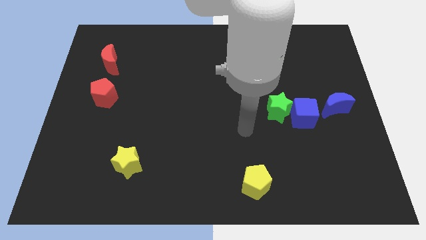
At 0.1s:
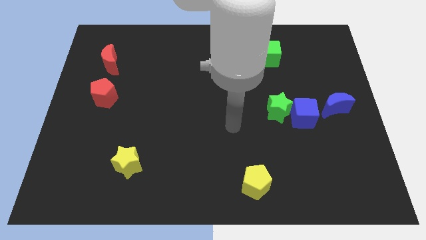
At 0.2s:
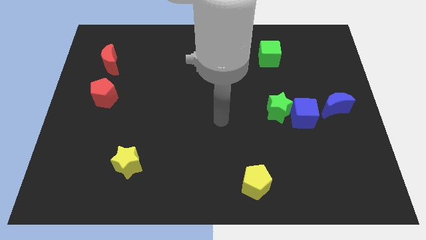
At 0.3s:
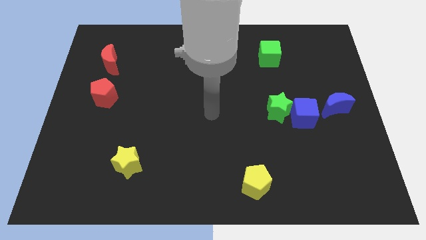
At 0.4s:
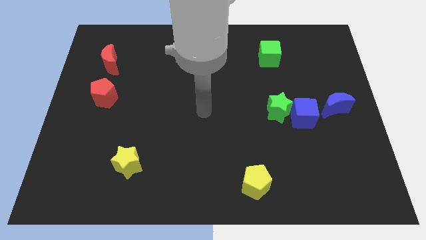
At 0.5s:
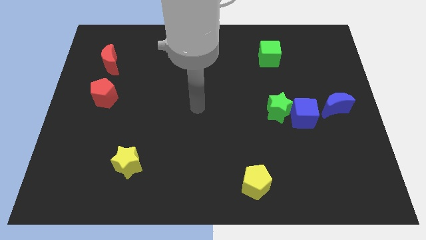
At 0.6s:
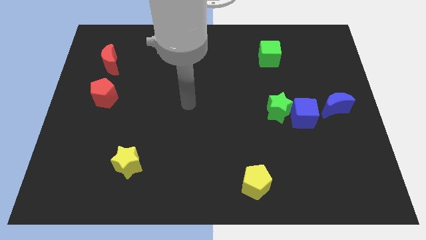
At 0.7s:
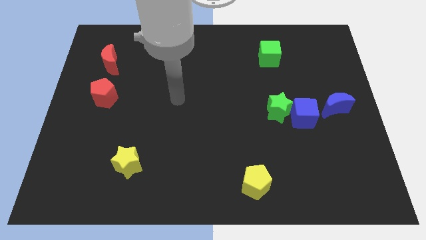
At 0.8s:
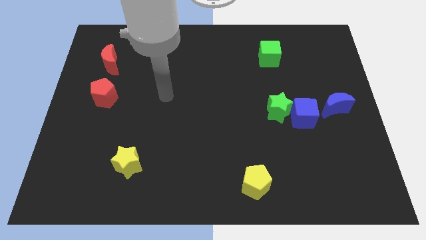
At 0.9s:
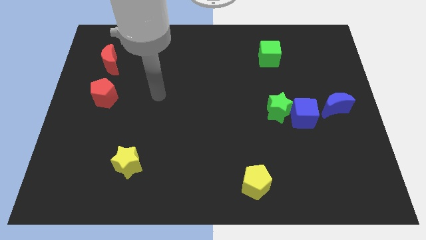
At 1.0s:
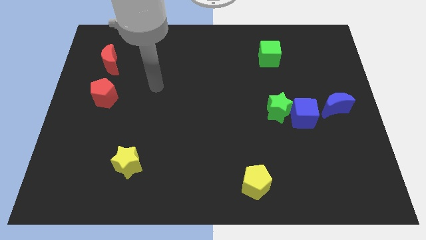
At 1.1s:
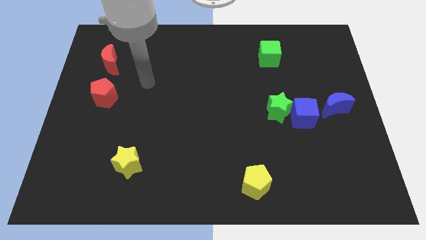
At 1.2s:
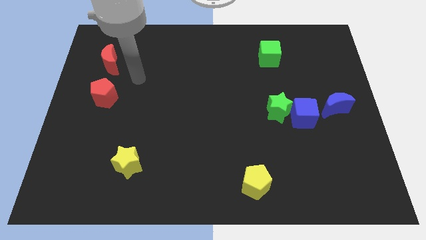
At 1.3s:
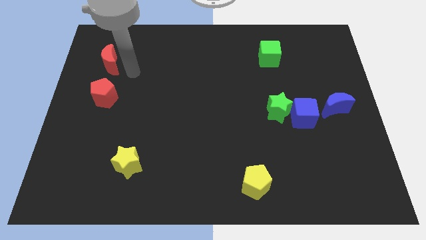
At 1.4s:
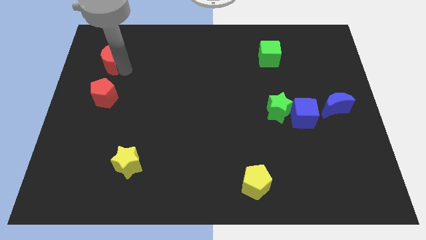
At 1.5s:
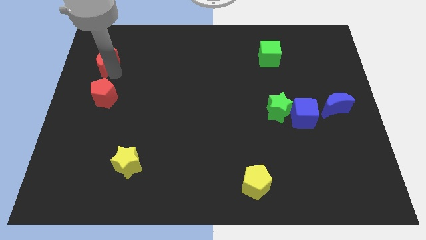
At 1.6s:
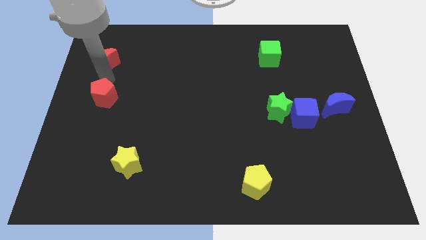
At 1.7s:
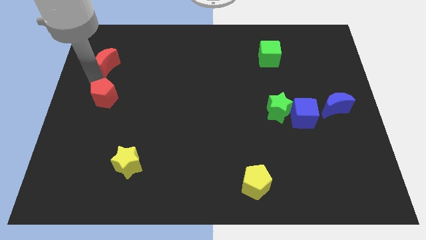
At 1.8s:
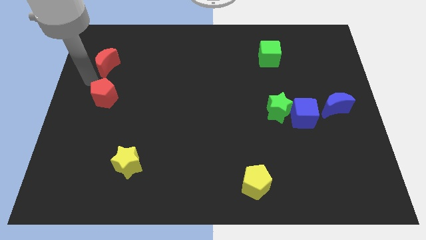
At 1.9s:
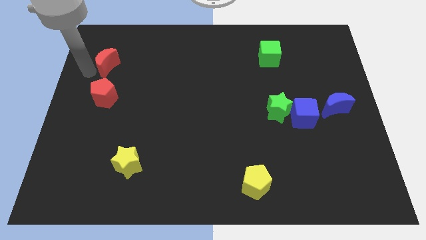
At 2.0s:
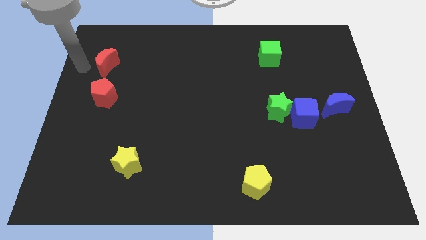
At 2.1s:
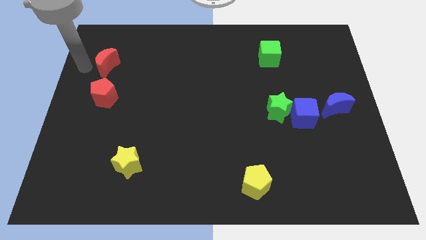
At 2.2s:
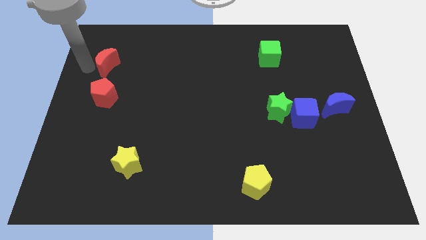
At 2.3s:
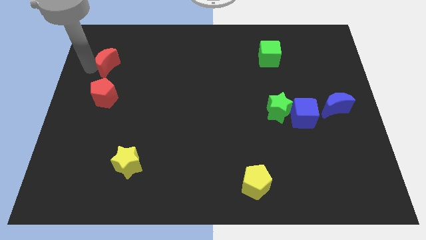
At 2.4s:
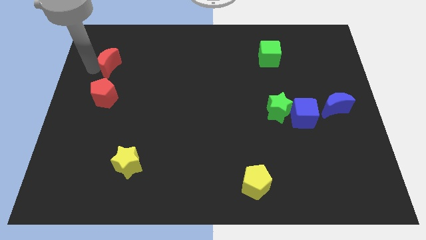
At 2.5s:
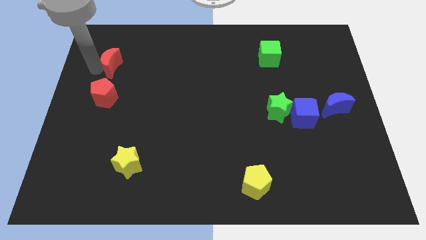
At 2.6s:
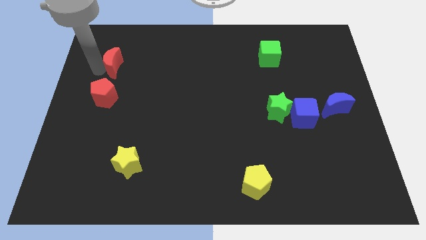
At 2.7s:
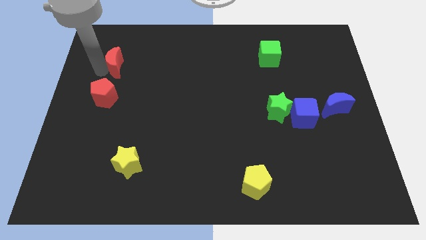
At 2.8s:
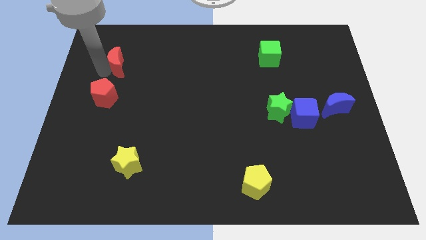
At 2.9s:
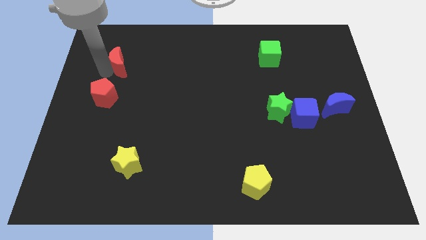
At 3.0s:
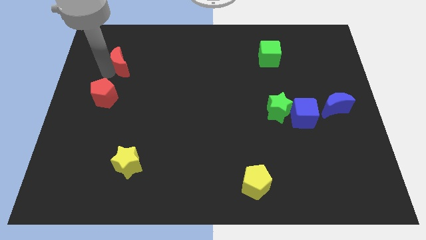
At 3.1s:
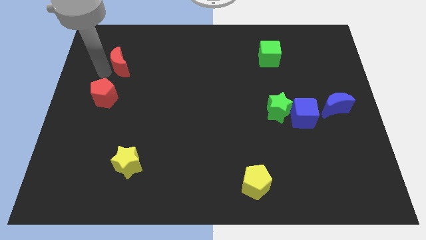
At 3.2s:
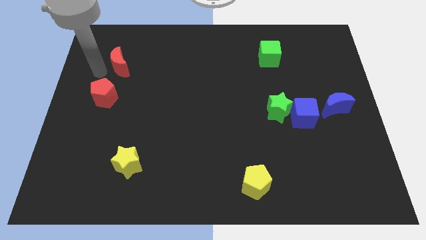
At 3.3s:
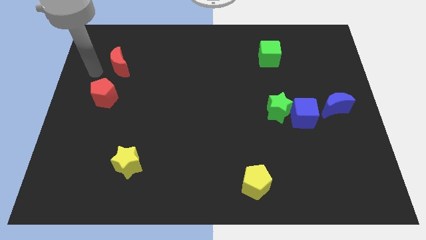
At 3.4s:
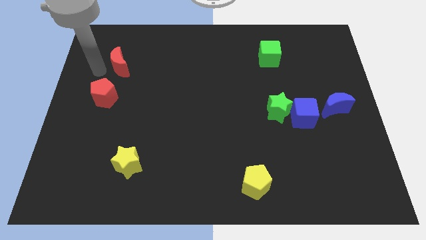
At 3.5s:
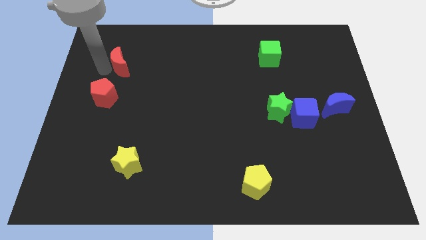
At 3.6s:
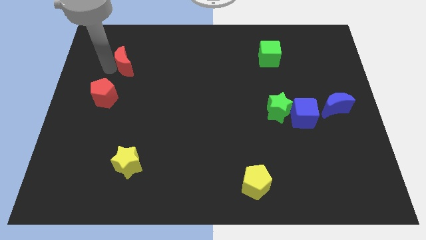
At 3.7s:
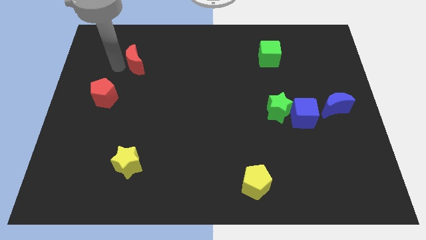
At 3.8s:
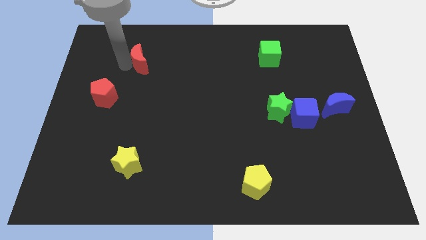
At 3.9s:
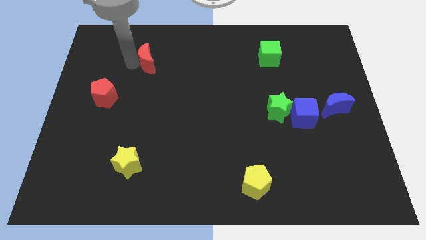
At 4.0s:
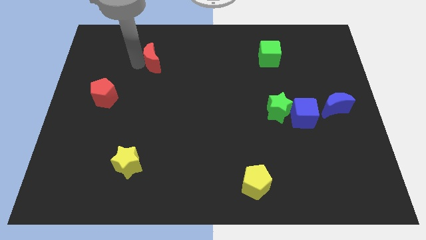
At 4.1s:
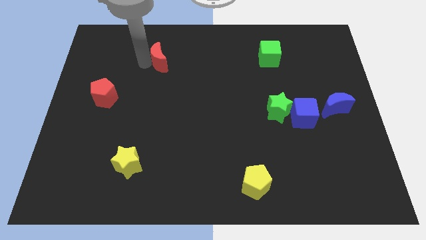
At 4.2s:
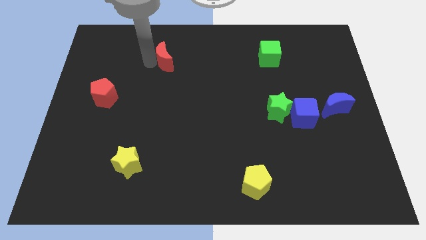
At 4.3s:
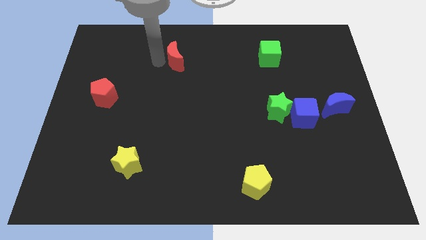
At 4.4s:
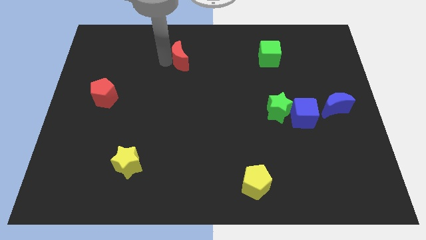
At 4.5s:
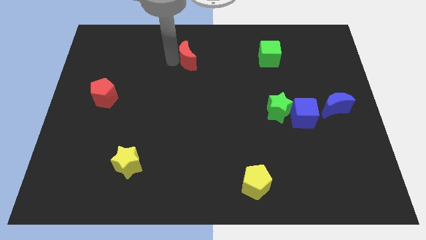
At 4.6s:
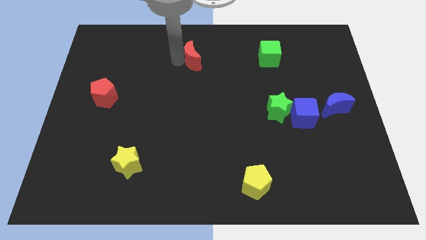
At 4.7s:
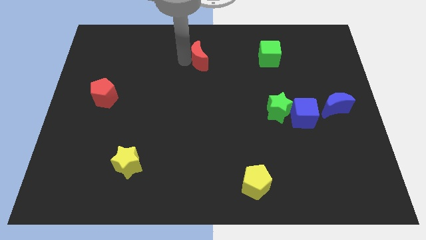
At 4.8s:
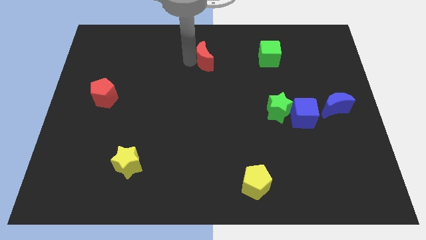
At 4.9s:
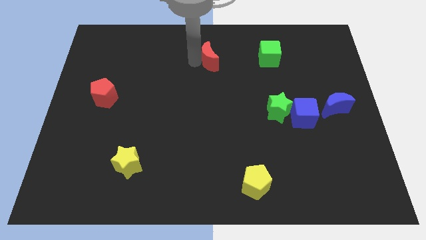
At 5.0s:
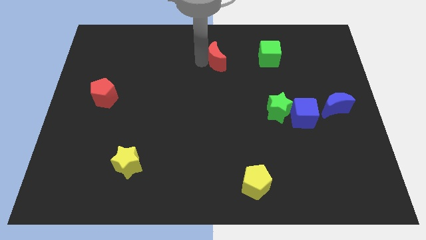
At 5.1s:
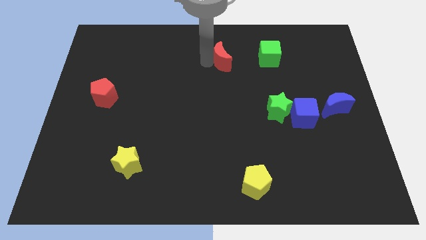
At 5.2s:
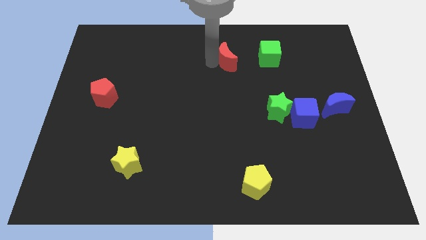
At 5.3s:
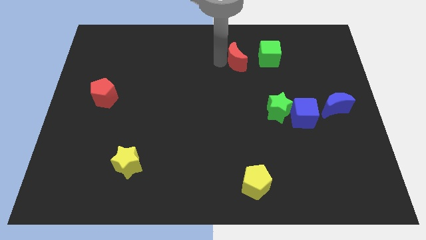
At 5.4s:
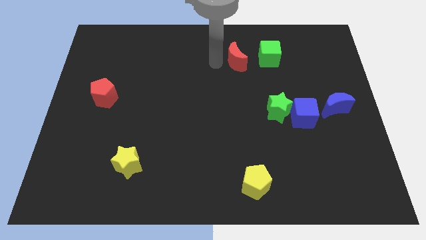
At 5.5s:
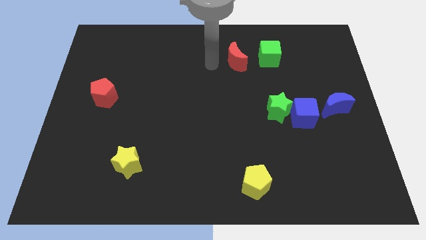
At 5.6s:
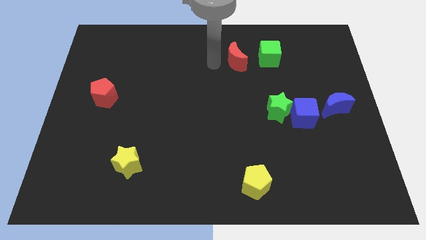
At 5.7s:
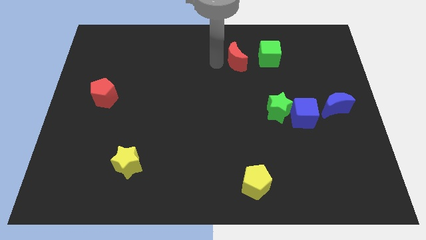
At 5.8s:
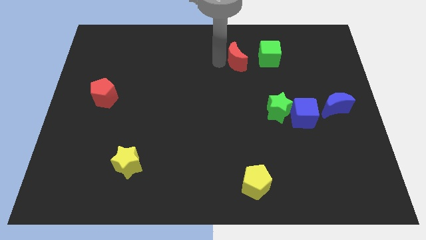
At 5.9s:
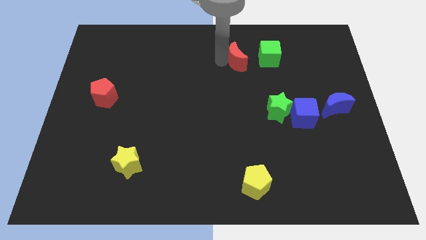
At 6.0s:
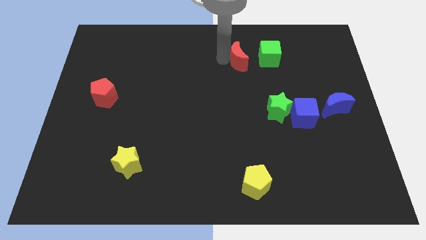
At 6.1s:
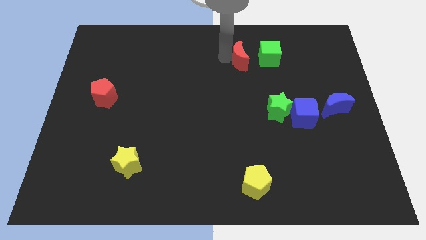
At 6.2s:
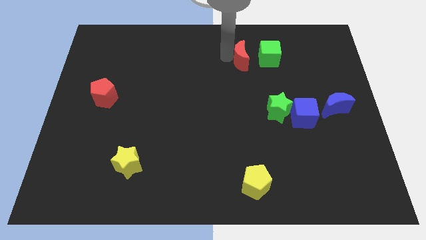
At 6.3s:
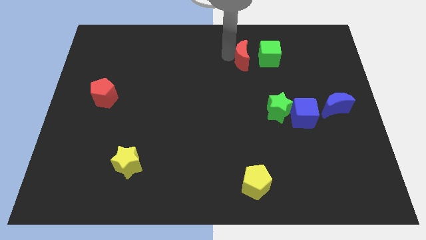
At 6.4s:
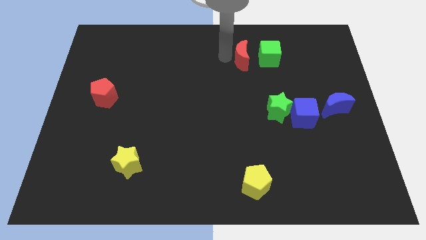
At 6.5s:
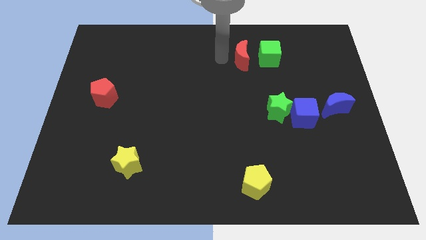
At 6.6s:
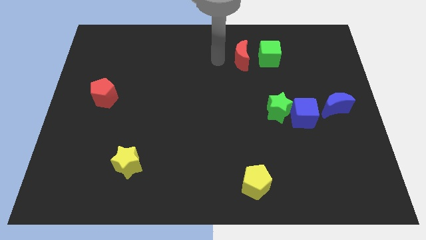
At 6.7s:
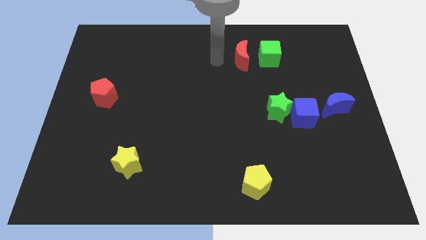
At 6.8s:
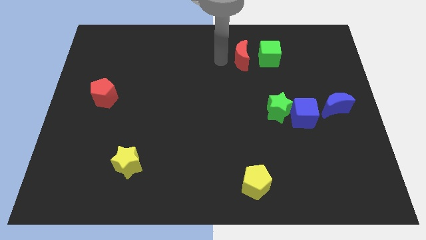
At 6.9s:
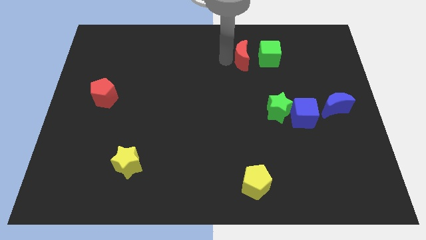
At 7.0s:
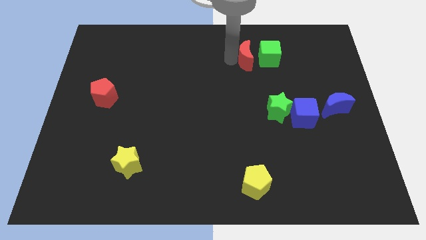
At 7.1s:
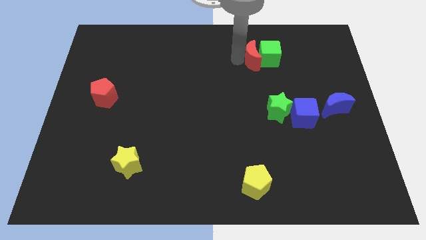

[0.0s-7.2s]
move the red moon to the green cube
